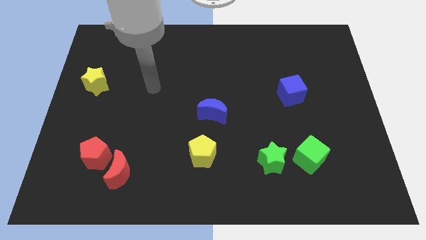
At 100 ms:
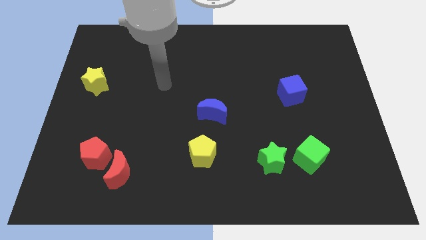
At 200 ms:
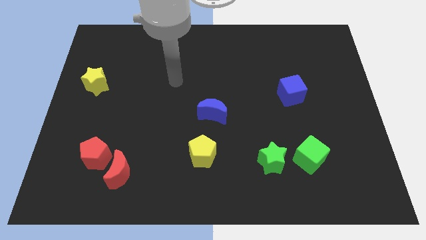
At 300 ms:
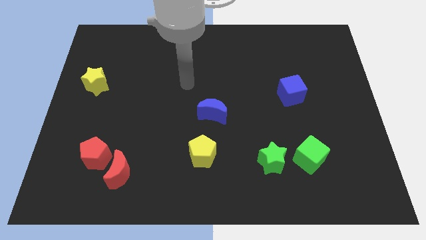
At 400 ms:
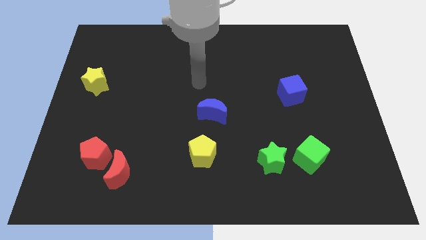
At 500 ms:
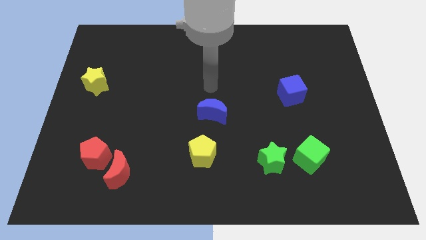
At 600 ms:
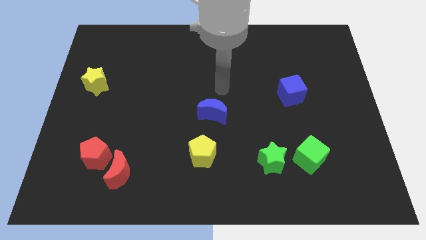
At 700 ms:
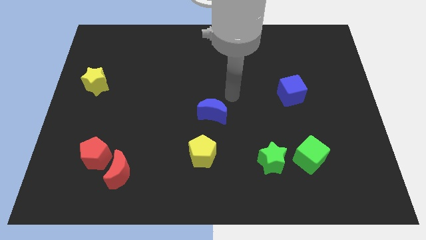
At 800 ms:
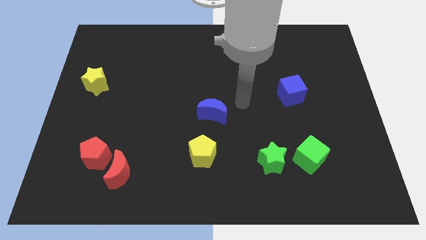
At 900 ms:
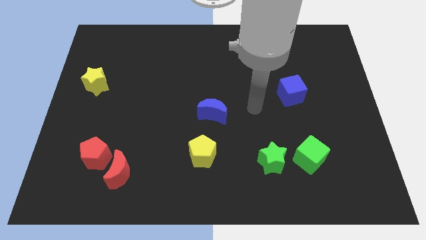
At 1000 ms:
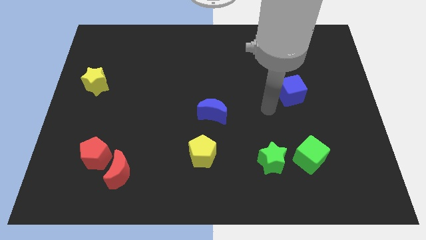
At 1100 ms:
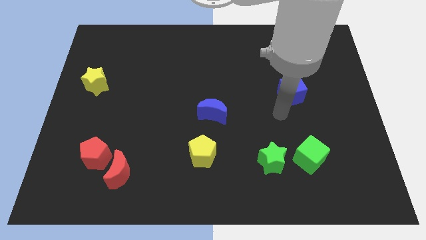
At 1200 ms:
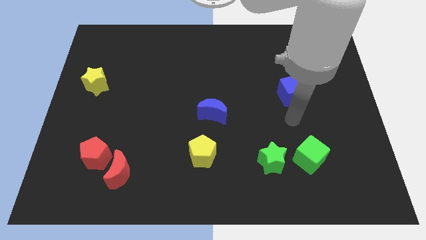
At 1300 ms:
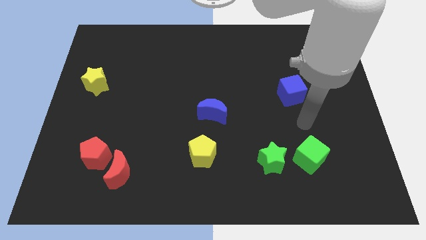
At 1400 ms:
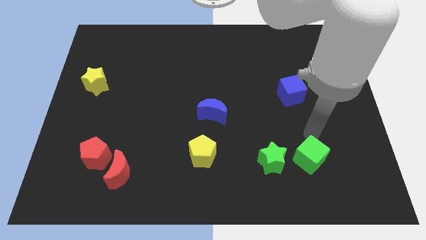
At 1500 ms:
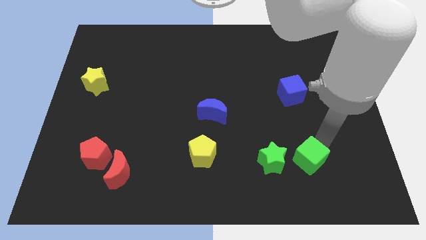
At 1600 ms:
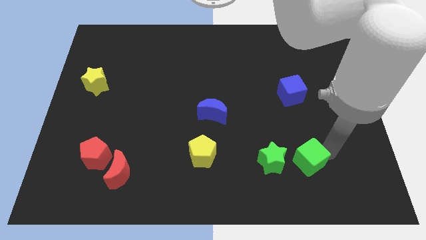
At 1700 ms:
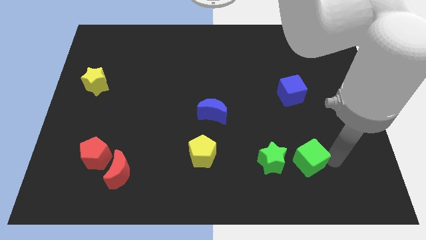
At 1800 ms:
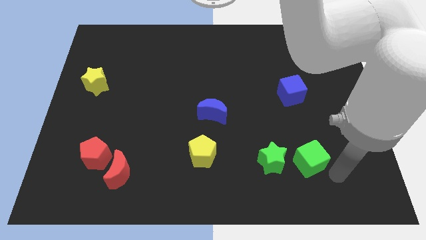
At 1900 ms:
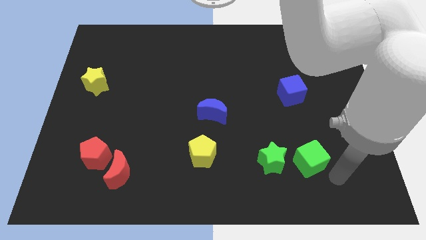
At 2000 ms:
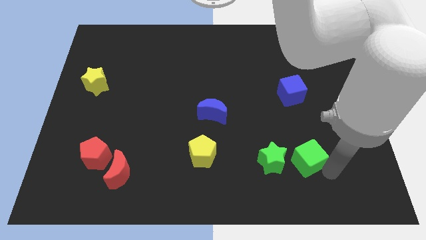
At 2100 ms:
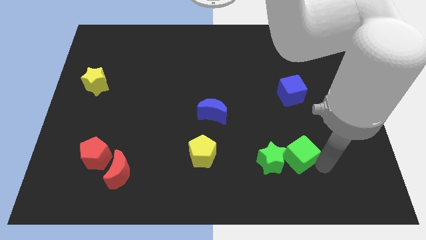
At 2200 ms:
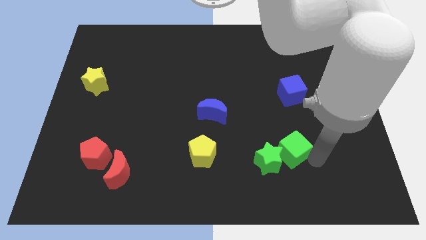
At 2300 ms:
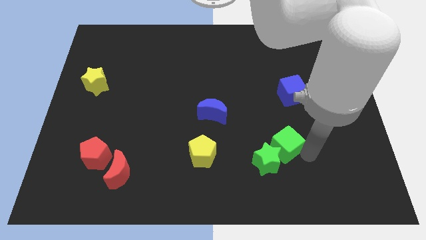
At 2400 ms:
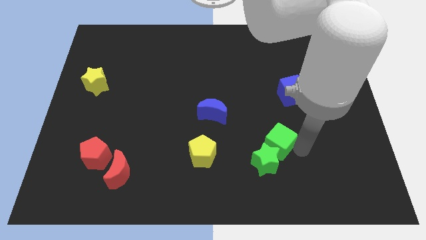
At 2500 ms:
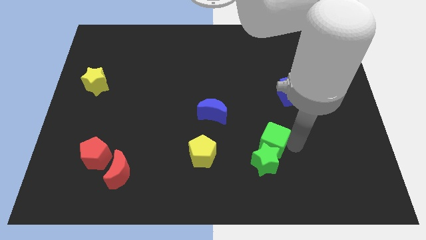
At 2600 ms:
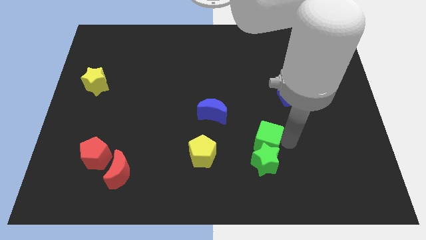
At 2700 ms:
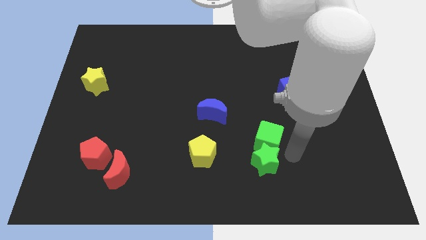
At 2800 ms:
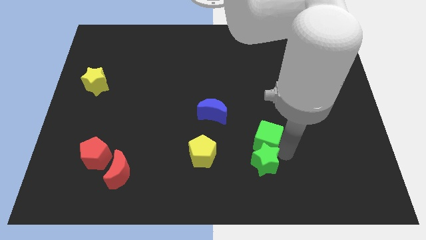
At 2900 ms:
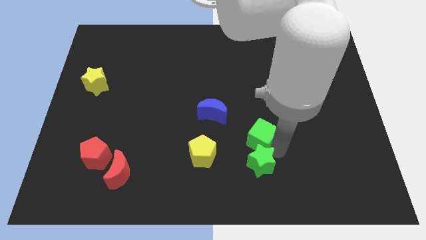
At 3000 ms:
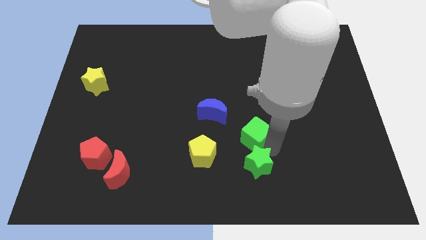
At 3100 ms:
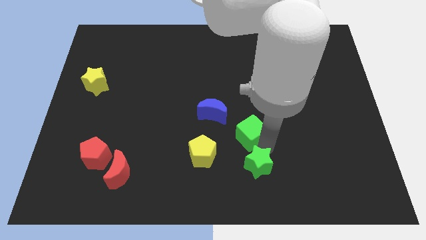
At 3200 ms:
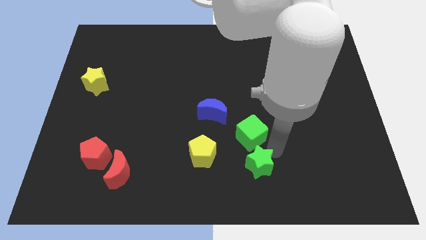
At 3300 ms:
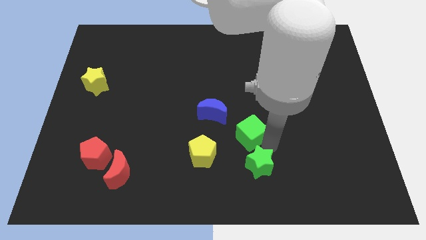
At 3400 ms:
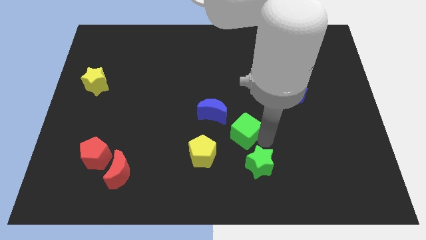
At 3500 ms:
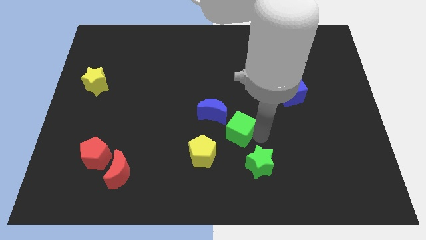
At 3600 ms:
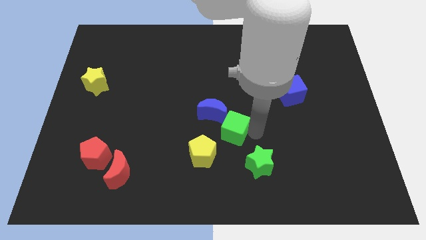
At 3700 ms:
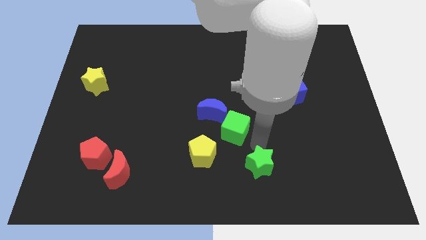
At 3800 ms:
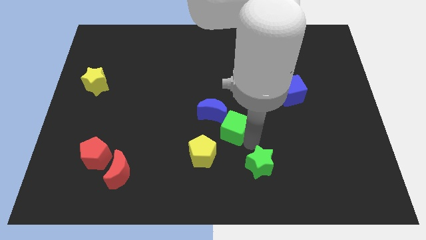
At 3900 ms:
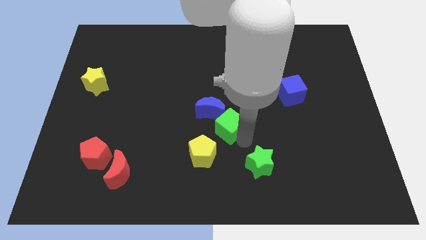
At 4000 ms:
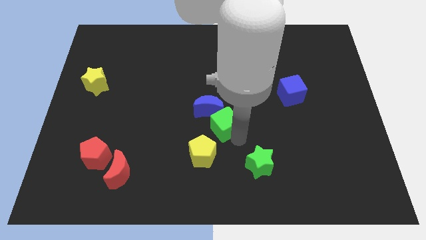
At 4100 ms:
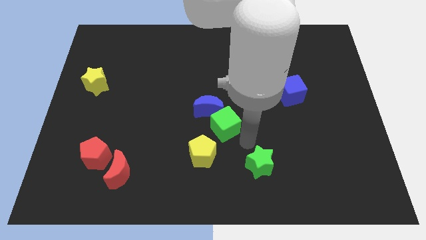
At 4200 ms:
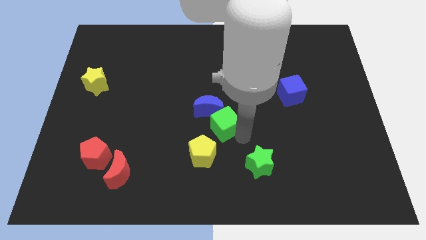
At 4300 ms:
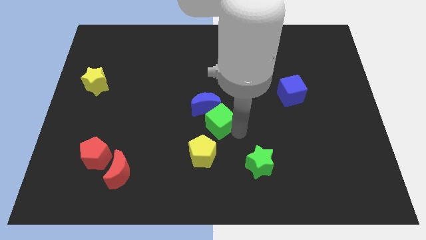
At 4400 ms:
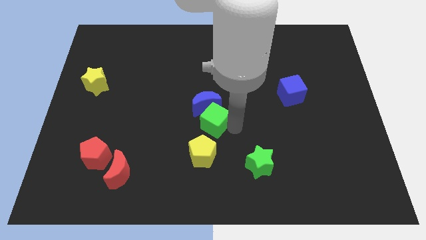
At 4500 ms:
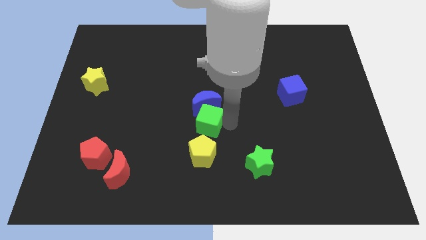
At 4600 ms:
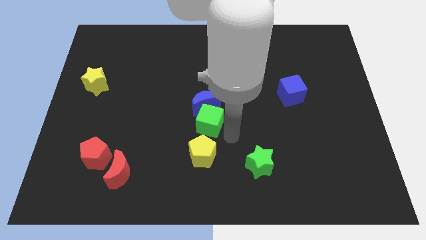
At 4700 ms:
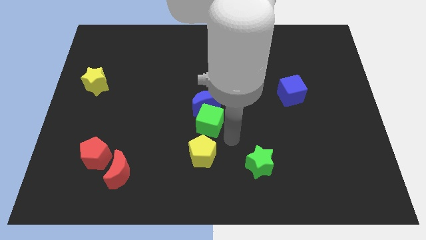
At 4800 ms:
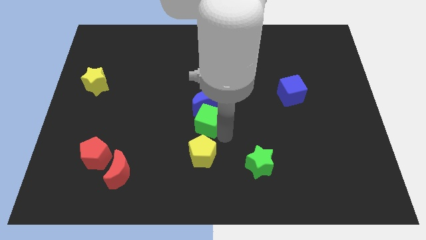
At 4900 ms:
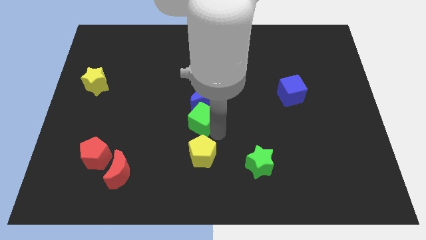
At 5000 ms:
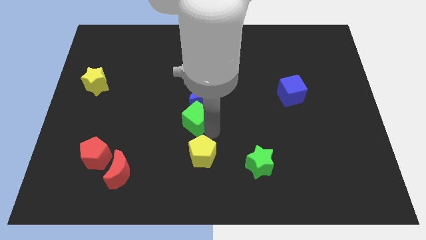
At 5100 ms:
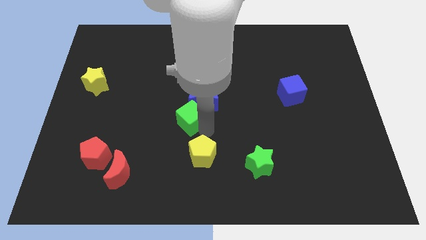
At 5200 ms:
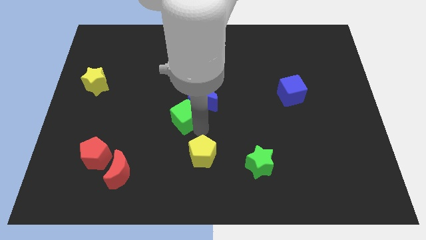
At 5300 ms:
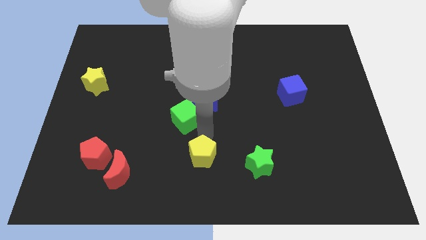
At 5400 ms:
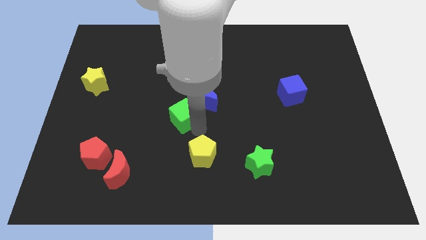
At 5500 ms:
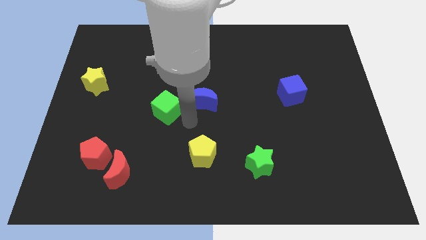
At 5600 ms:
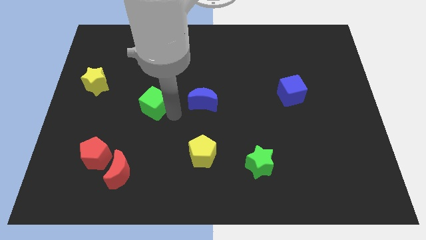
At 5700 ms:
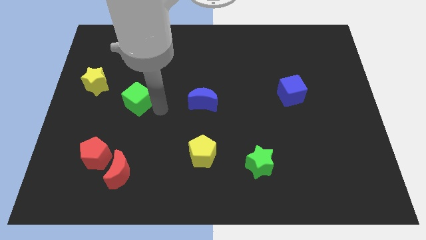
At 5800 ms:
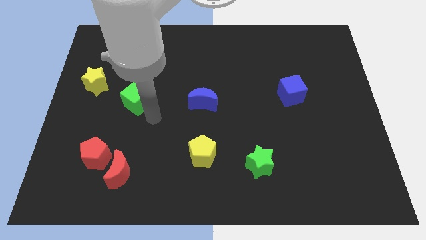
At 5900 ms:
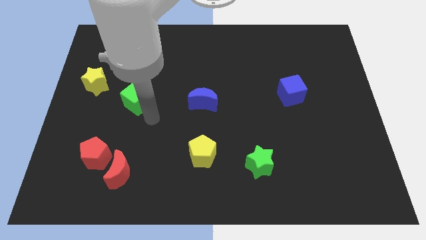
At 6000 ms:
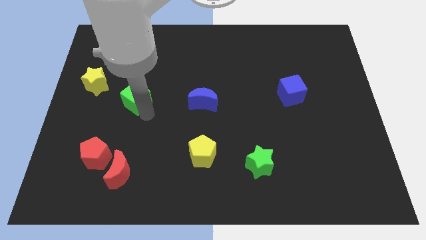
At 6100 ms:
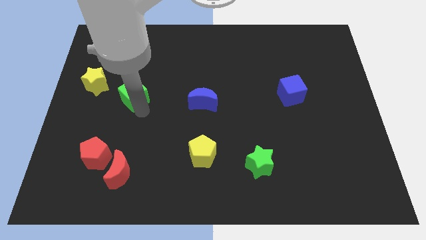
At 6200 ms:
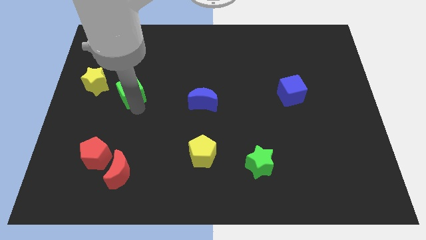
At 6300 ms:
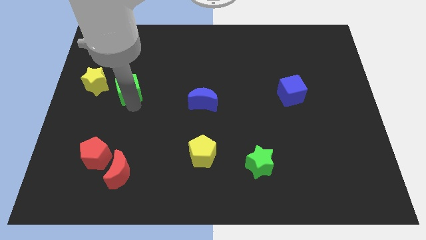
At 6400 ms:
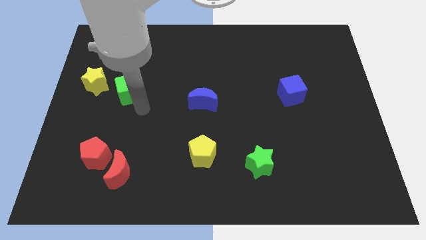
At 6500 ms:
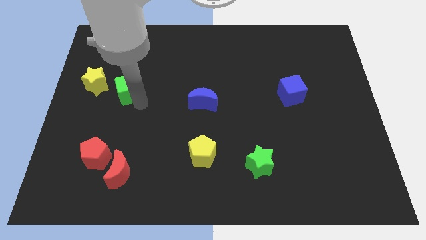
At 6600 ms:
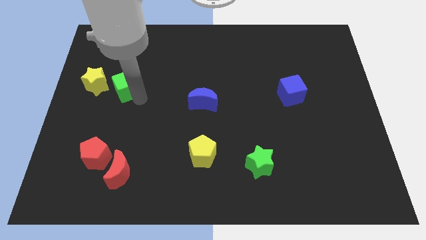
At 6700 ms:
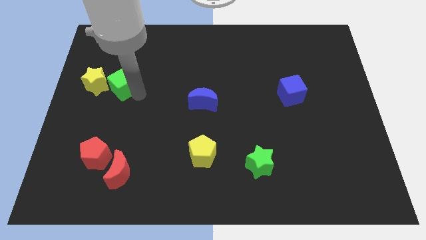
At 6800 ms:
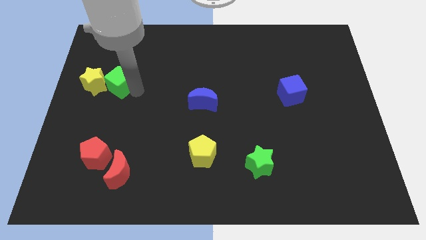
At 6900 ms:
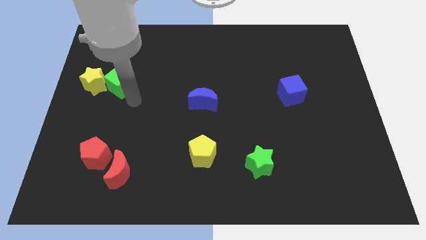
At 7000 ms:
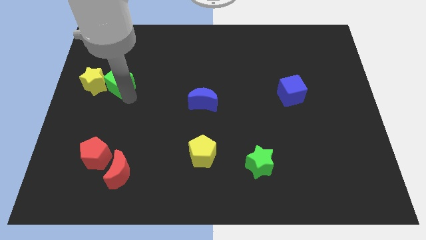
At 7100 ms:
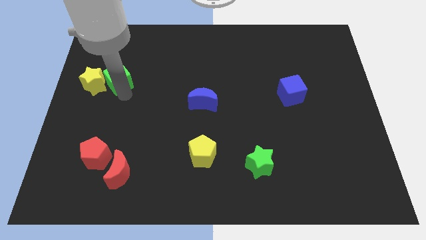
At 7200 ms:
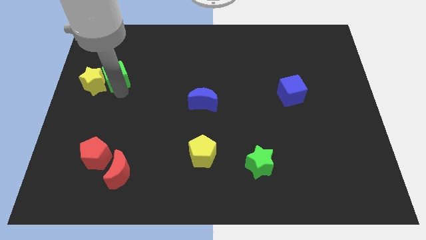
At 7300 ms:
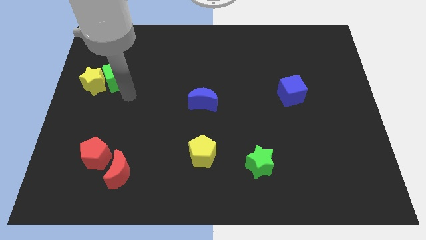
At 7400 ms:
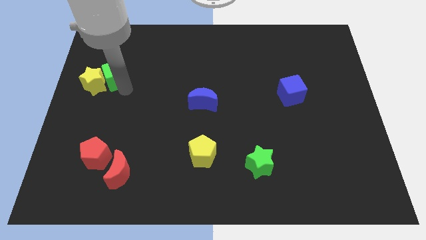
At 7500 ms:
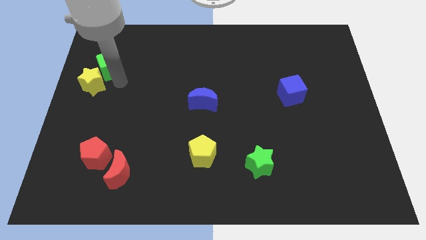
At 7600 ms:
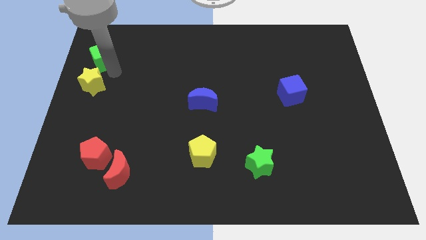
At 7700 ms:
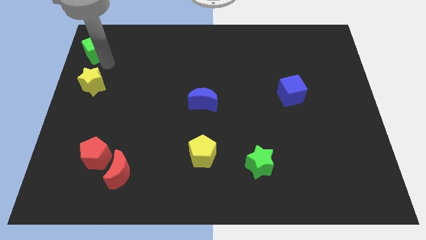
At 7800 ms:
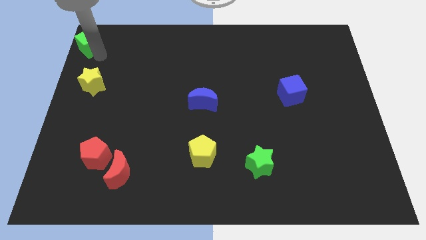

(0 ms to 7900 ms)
move the green cube to the top left
